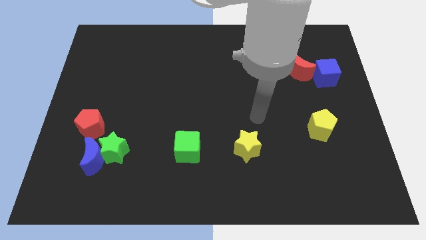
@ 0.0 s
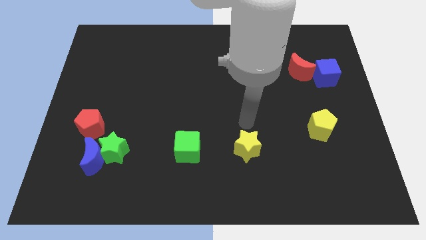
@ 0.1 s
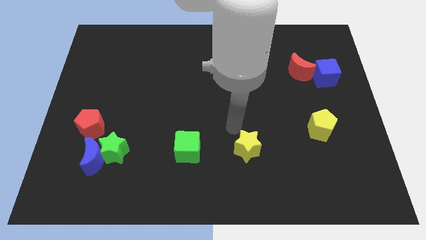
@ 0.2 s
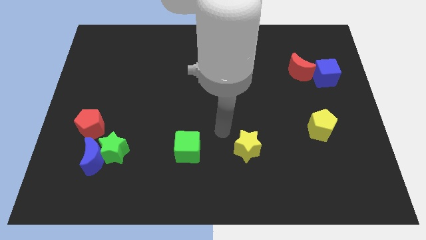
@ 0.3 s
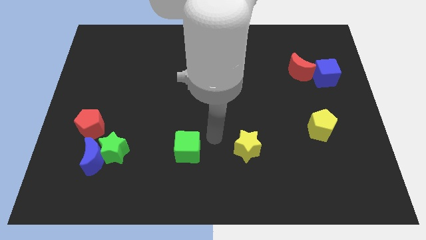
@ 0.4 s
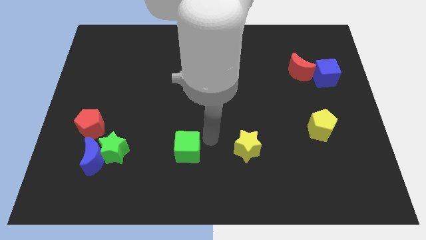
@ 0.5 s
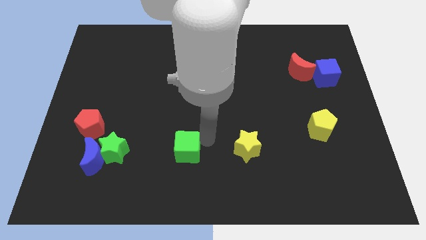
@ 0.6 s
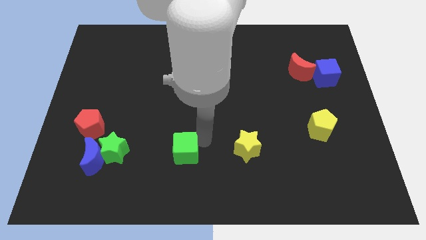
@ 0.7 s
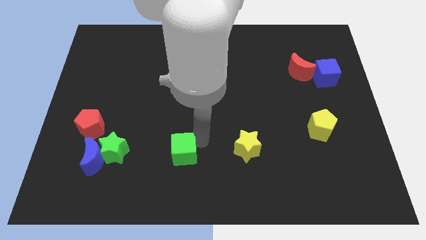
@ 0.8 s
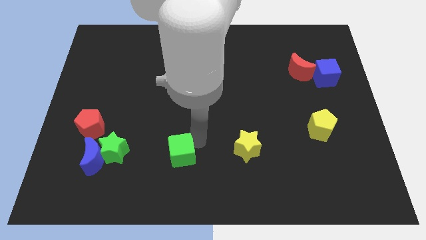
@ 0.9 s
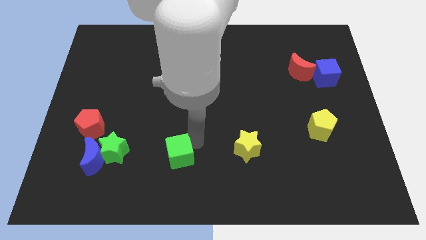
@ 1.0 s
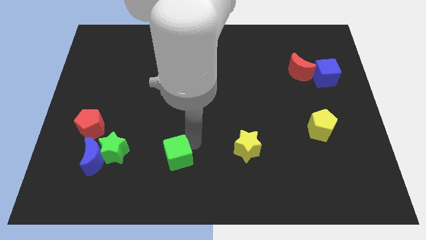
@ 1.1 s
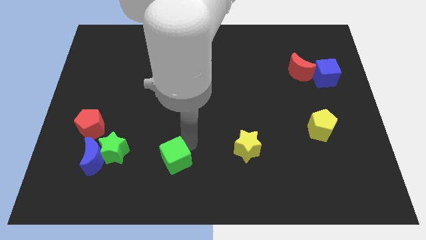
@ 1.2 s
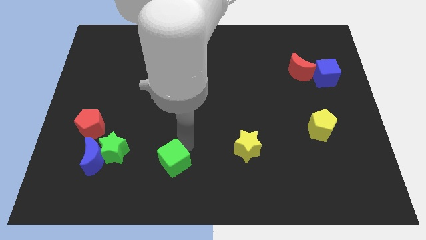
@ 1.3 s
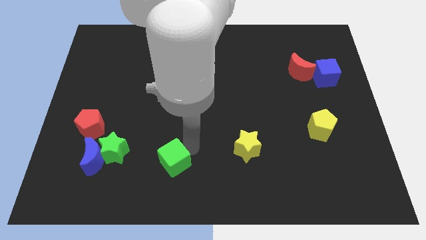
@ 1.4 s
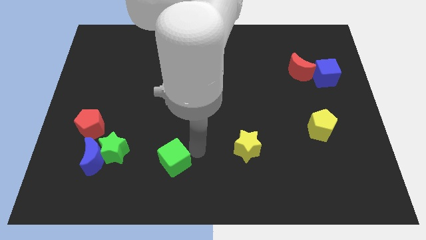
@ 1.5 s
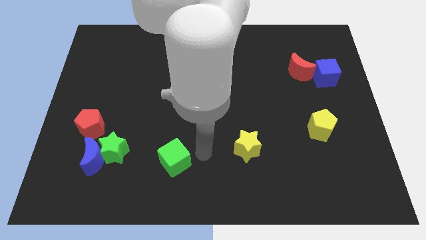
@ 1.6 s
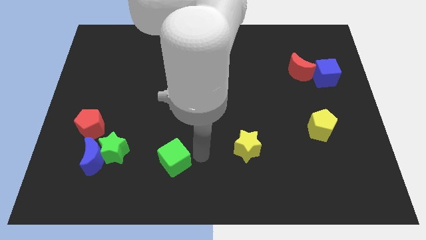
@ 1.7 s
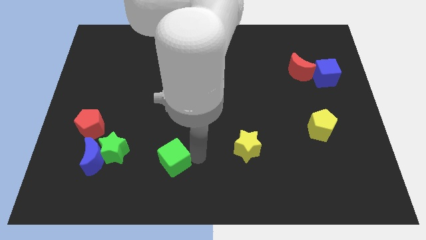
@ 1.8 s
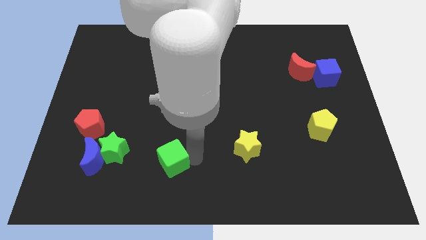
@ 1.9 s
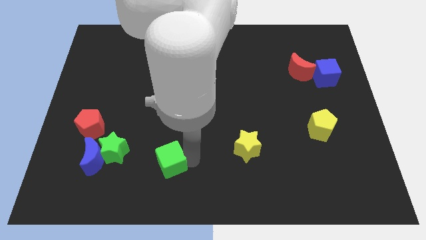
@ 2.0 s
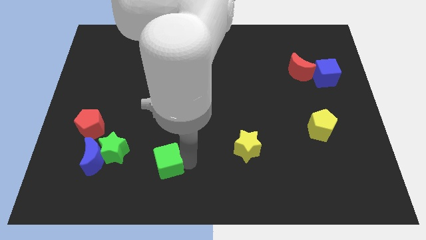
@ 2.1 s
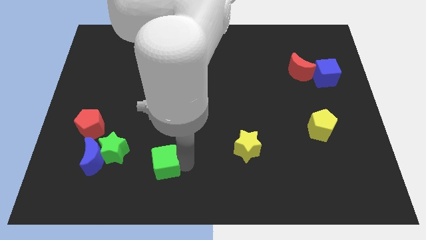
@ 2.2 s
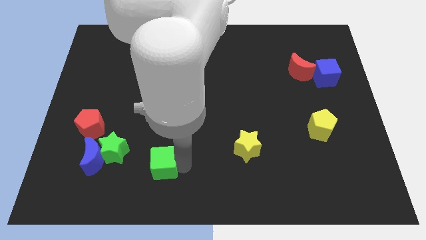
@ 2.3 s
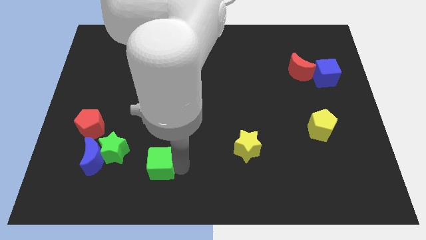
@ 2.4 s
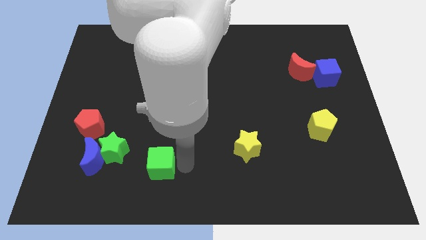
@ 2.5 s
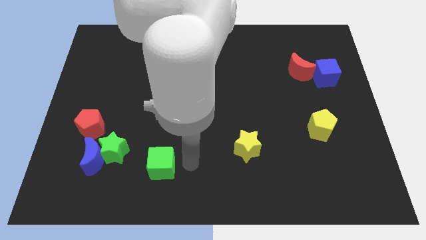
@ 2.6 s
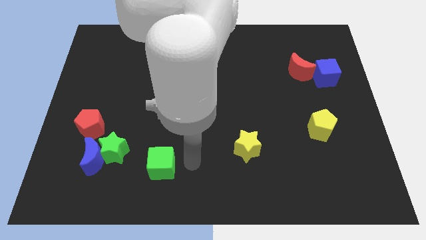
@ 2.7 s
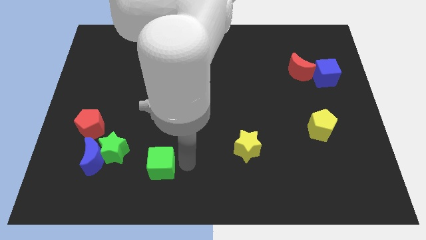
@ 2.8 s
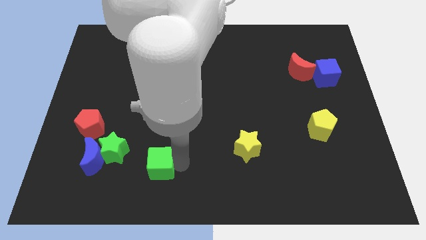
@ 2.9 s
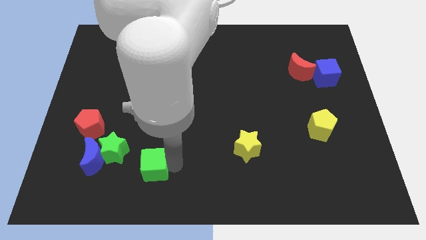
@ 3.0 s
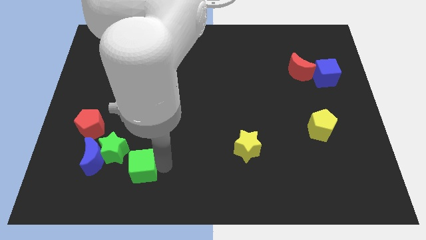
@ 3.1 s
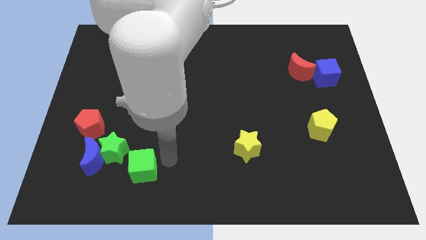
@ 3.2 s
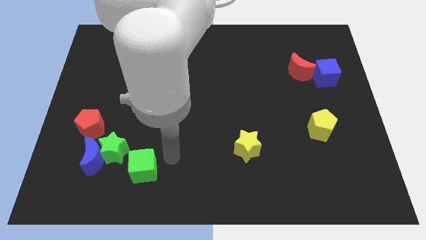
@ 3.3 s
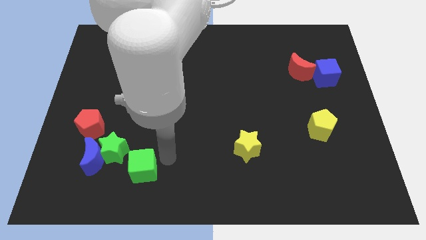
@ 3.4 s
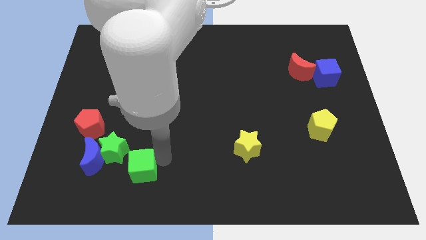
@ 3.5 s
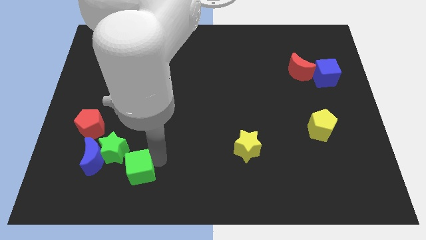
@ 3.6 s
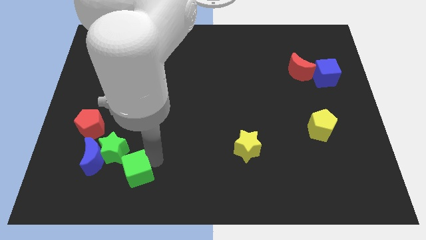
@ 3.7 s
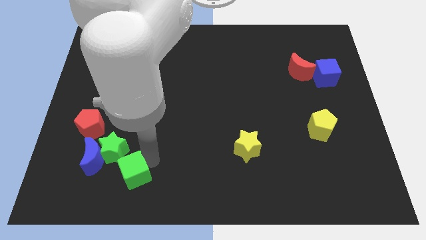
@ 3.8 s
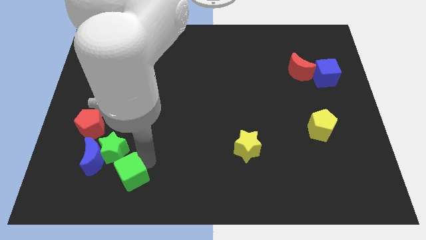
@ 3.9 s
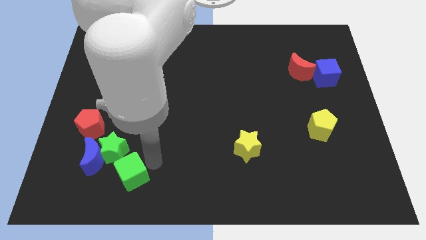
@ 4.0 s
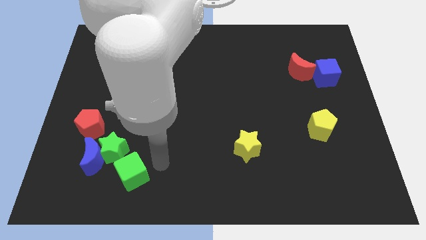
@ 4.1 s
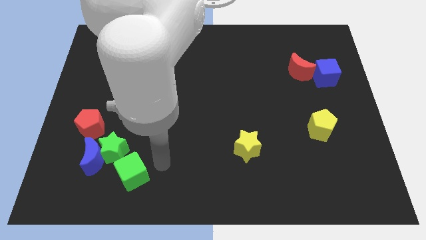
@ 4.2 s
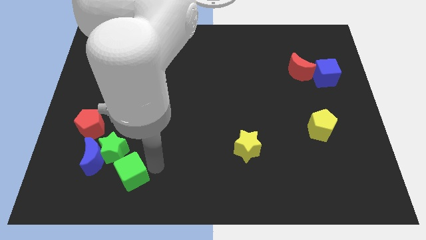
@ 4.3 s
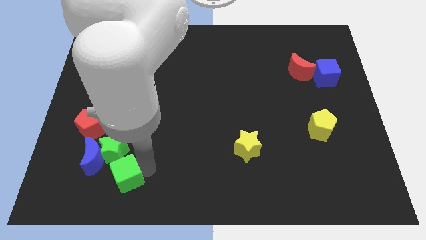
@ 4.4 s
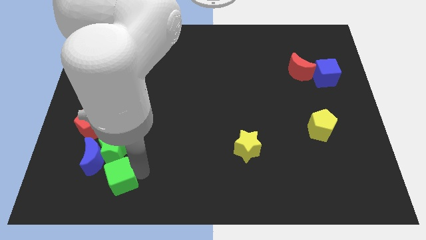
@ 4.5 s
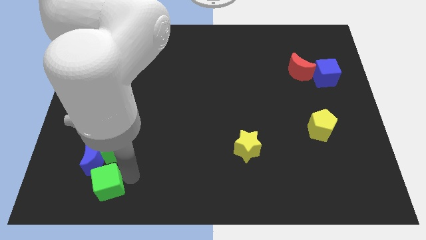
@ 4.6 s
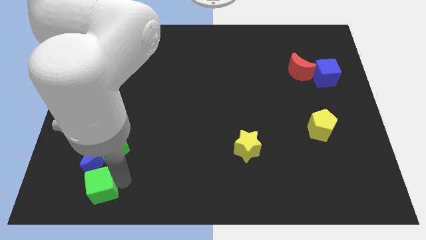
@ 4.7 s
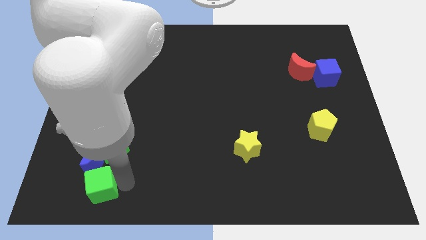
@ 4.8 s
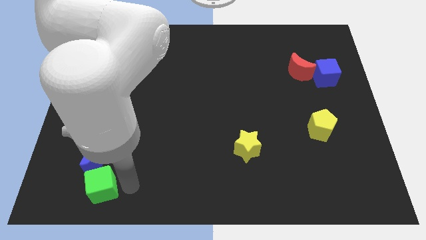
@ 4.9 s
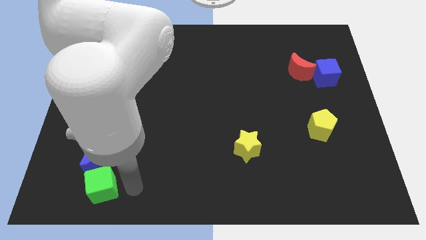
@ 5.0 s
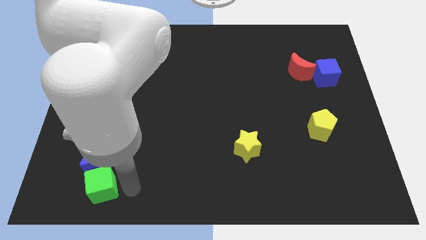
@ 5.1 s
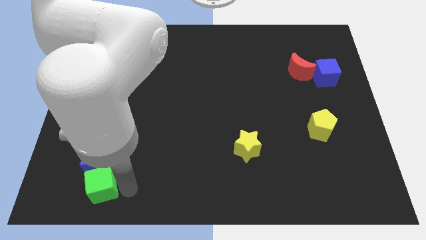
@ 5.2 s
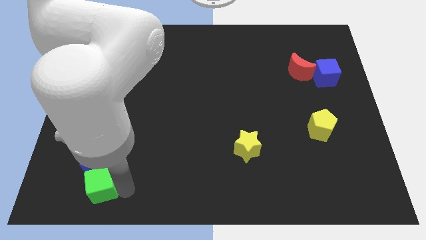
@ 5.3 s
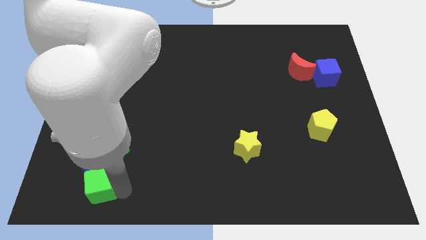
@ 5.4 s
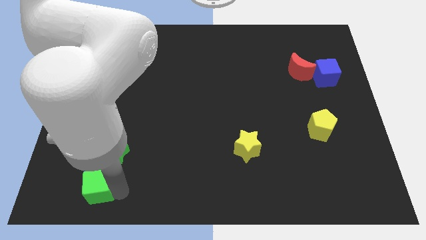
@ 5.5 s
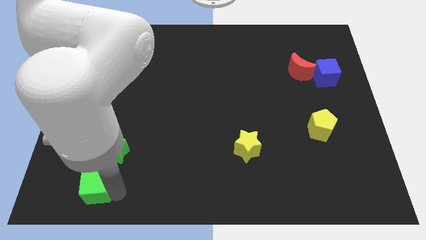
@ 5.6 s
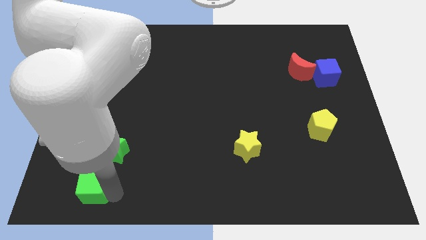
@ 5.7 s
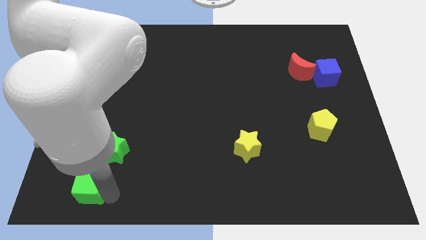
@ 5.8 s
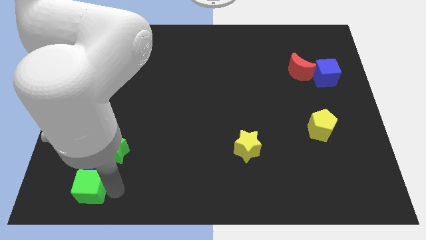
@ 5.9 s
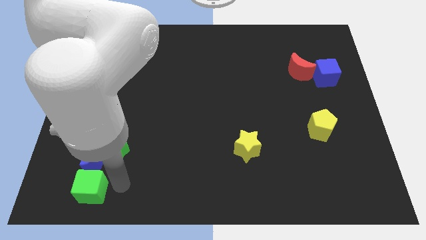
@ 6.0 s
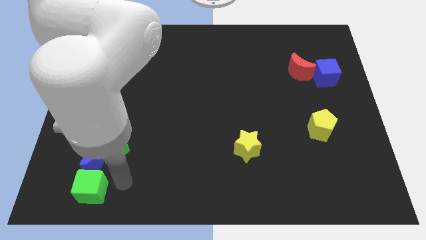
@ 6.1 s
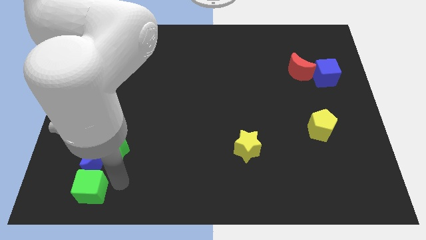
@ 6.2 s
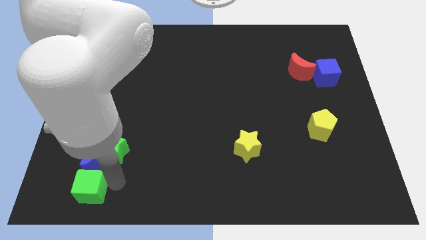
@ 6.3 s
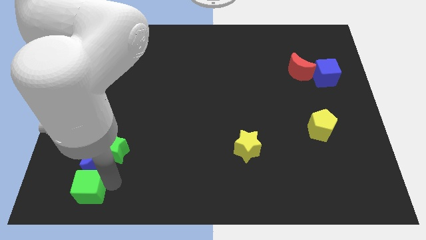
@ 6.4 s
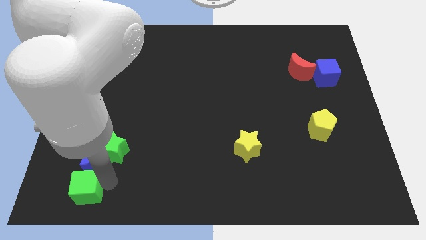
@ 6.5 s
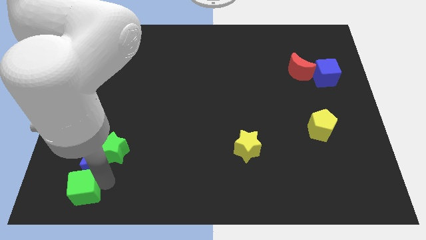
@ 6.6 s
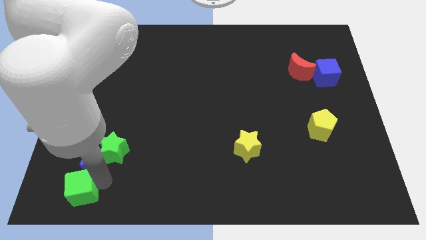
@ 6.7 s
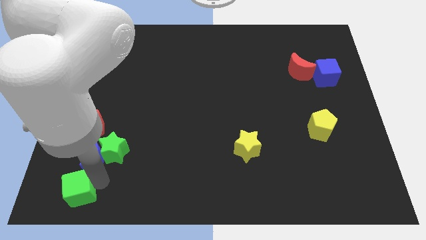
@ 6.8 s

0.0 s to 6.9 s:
move the green cube to the bottom left
